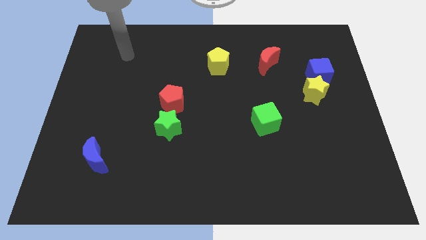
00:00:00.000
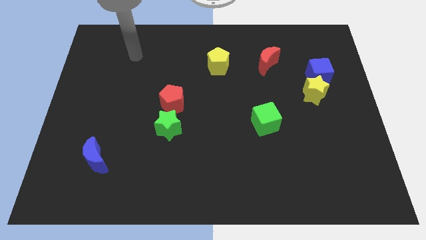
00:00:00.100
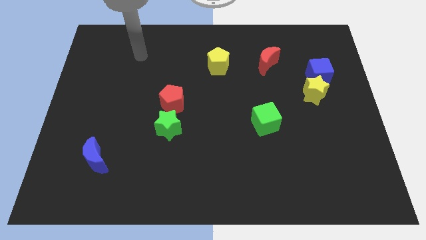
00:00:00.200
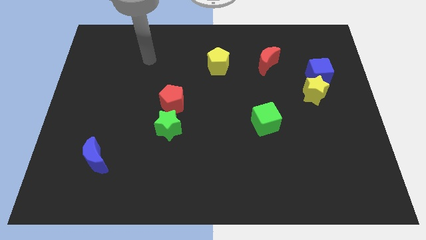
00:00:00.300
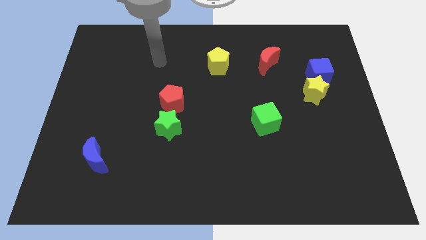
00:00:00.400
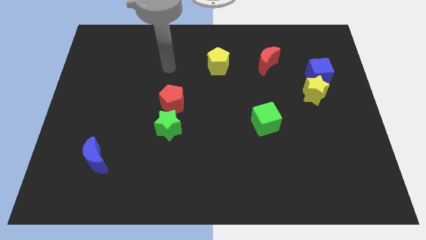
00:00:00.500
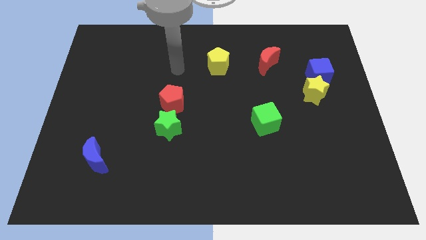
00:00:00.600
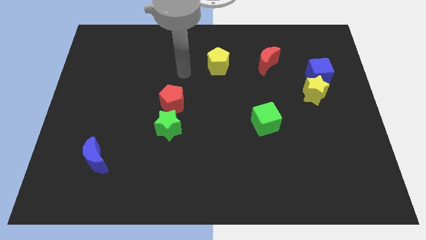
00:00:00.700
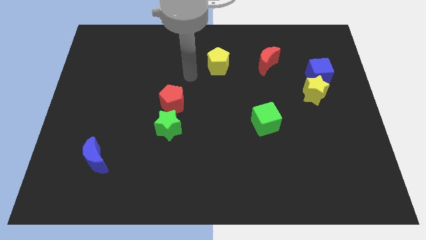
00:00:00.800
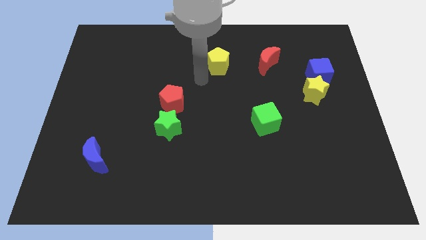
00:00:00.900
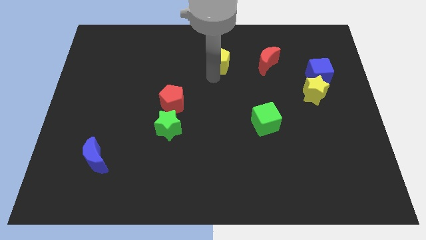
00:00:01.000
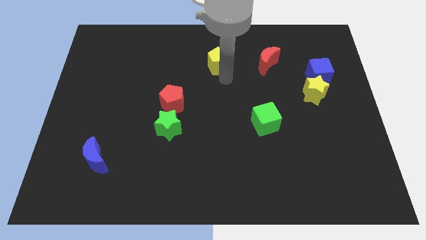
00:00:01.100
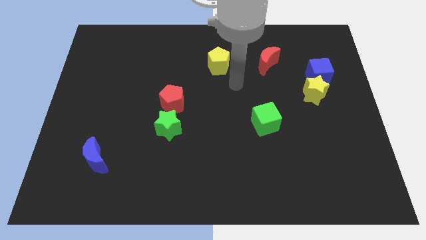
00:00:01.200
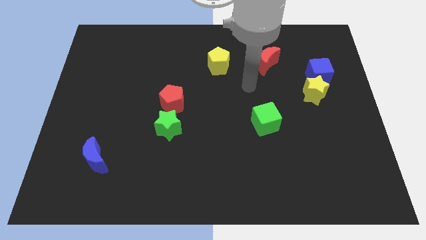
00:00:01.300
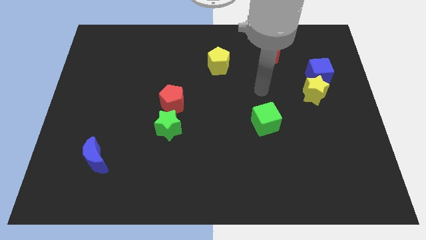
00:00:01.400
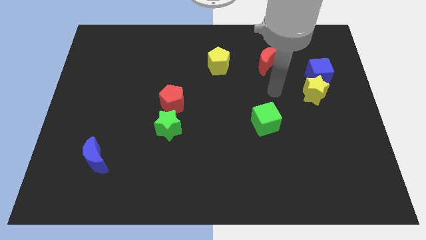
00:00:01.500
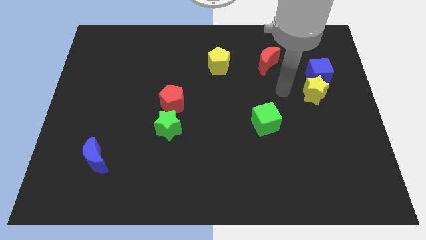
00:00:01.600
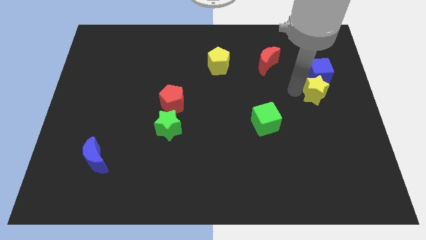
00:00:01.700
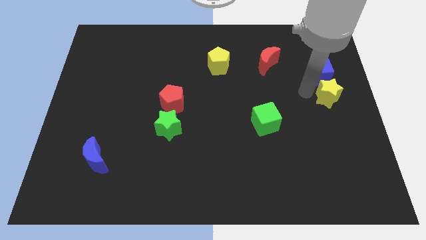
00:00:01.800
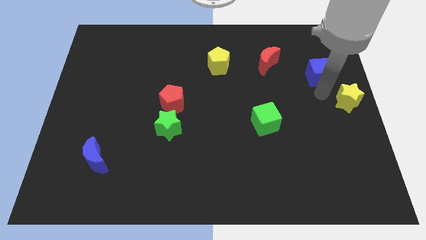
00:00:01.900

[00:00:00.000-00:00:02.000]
pull the blue cube apart from the yellow star

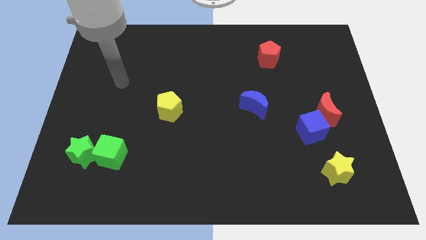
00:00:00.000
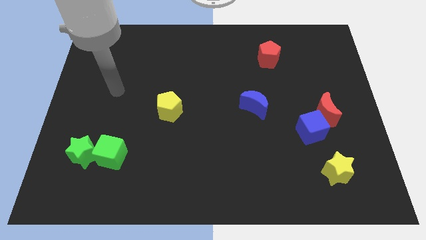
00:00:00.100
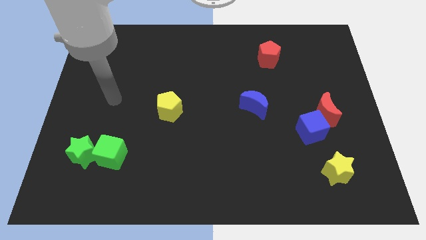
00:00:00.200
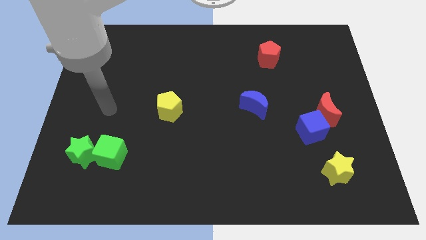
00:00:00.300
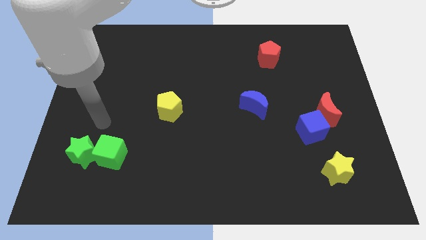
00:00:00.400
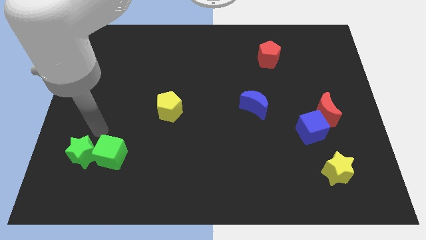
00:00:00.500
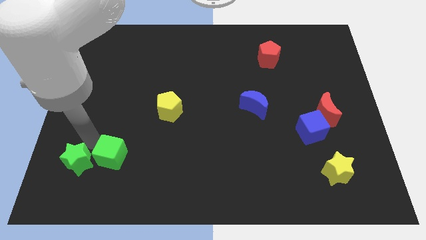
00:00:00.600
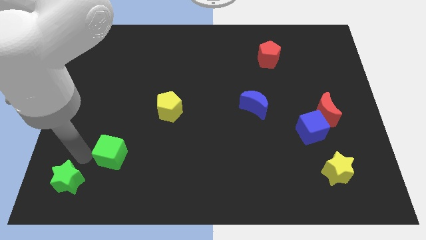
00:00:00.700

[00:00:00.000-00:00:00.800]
pull the green cube apart from the green star

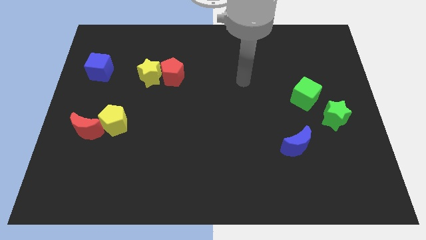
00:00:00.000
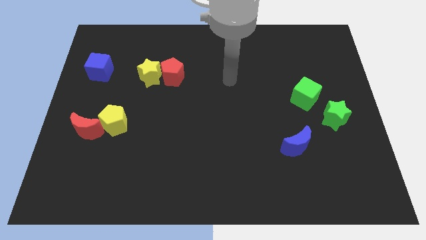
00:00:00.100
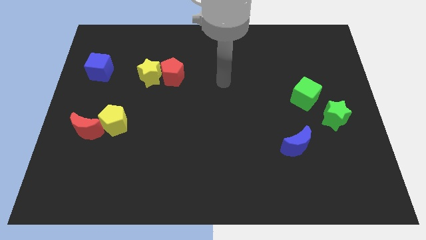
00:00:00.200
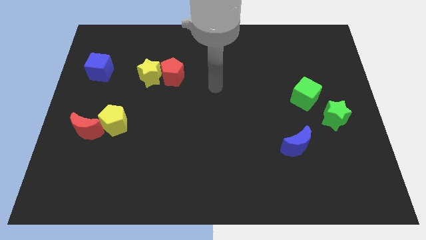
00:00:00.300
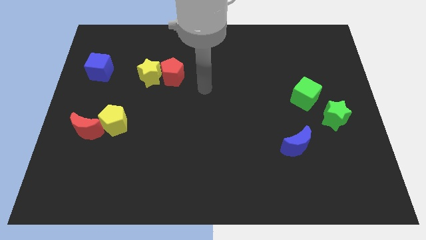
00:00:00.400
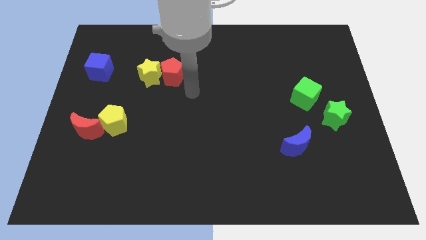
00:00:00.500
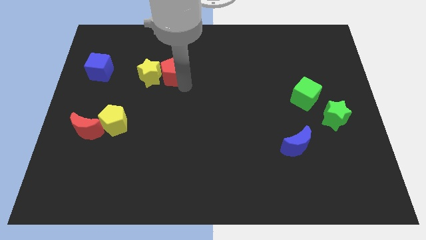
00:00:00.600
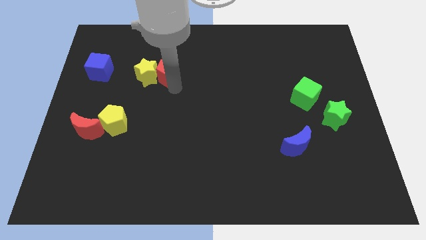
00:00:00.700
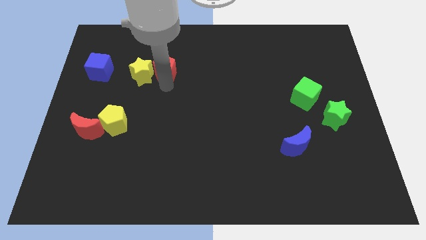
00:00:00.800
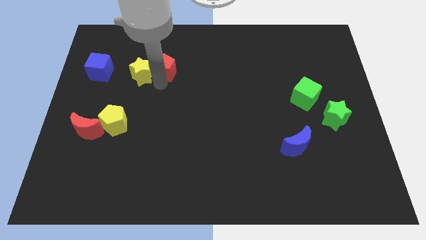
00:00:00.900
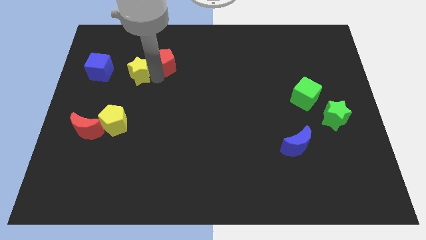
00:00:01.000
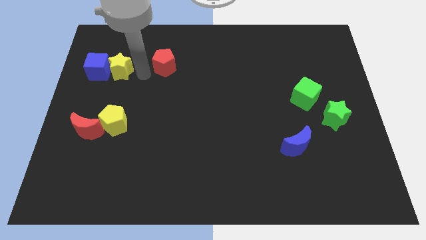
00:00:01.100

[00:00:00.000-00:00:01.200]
pull the red pentagon apart from the yellow star

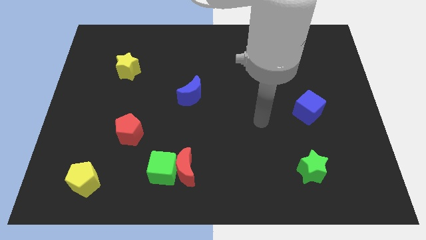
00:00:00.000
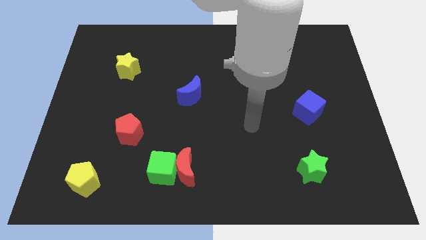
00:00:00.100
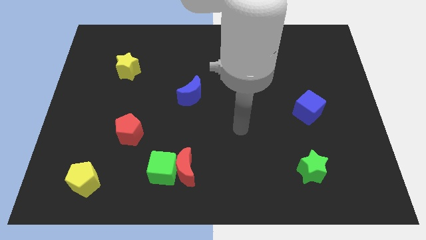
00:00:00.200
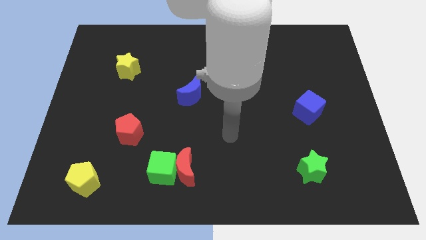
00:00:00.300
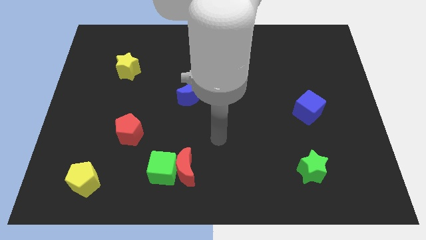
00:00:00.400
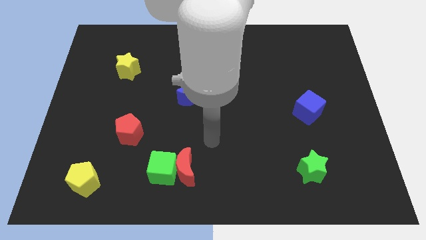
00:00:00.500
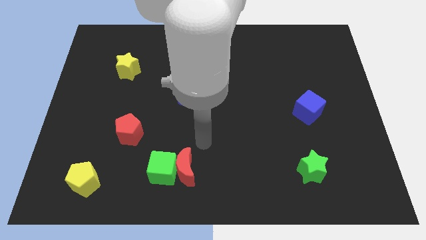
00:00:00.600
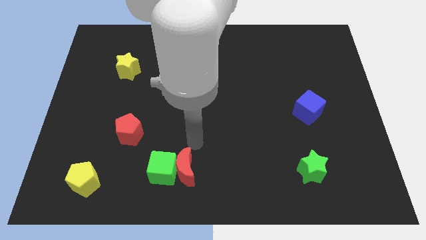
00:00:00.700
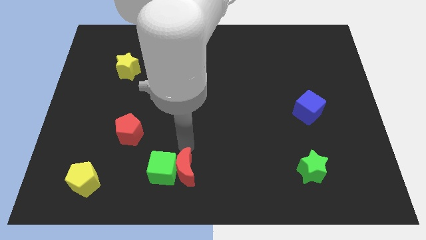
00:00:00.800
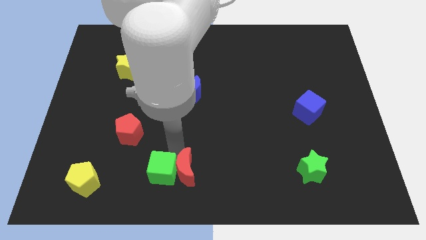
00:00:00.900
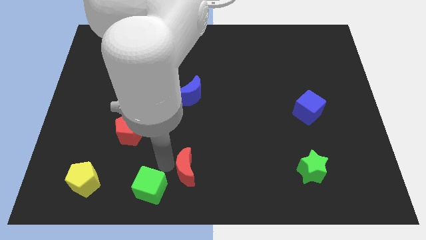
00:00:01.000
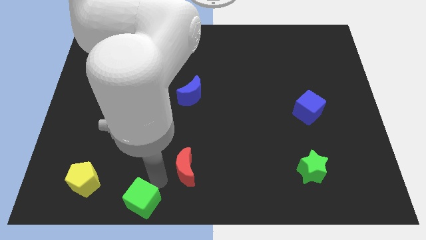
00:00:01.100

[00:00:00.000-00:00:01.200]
separate the red moon from the green cube

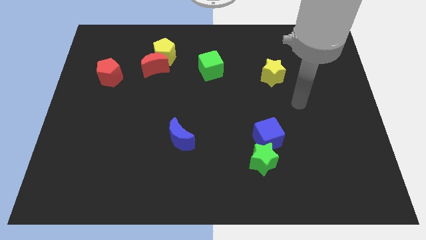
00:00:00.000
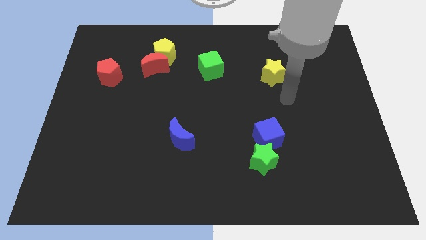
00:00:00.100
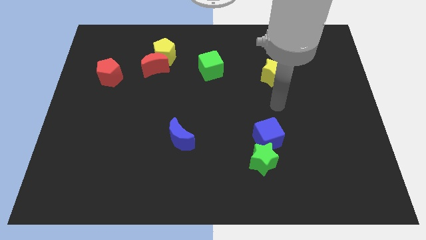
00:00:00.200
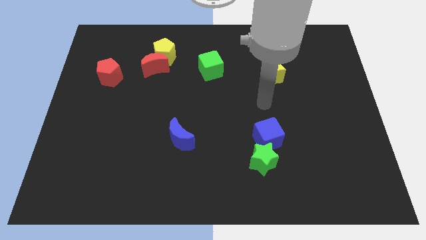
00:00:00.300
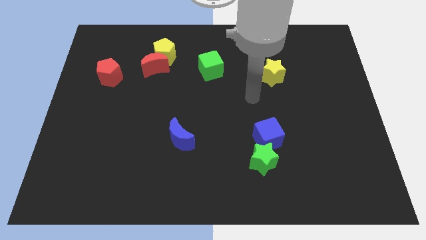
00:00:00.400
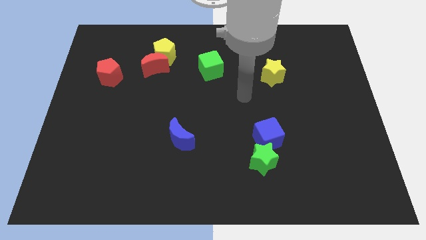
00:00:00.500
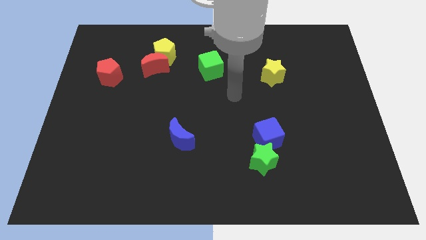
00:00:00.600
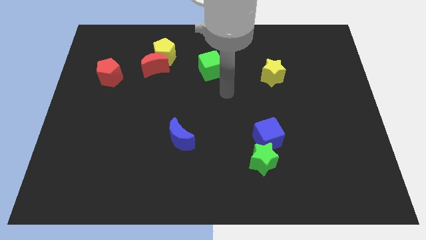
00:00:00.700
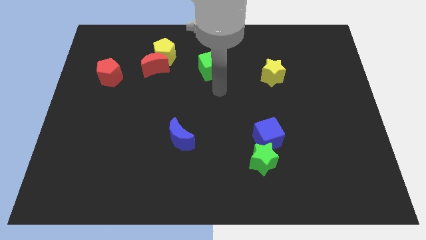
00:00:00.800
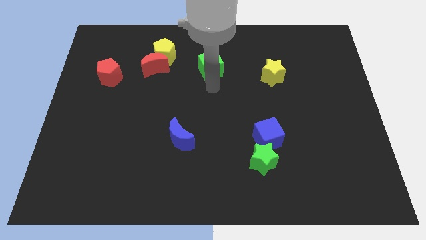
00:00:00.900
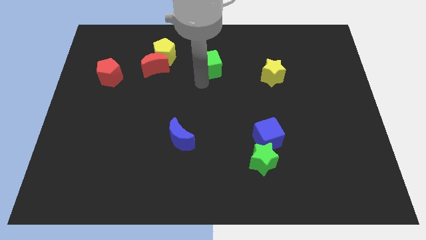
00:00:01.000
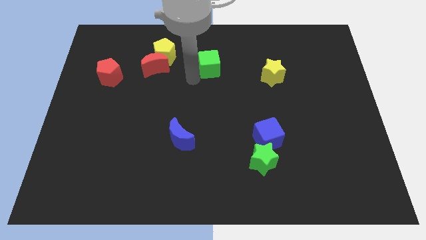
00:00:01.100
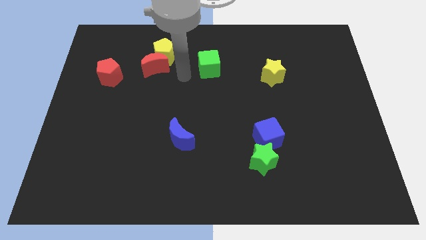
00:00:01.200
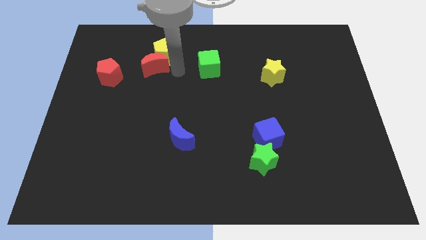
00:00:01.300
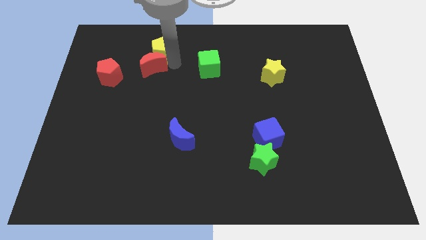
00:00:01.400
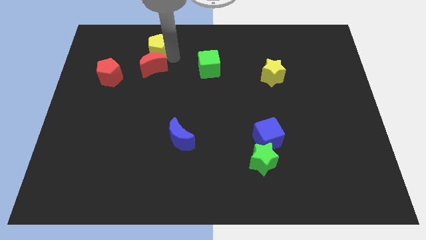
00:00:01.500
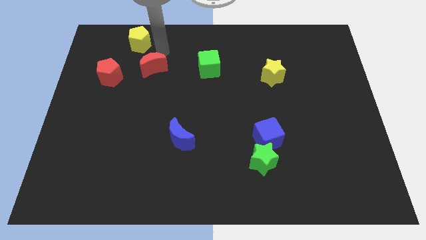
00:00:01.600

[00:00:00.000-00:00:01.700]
pull the red moon apart from the yellow pentagon

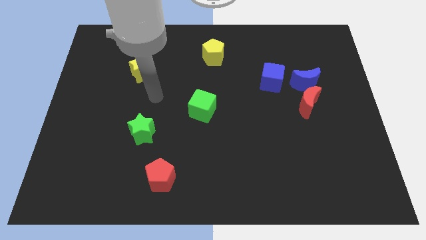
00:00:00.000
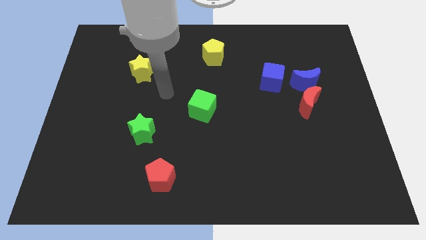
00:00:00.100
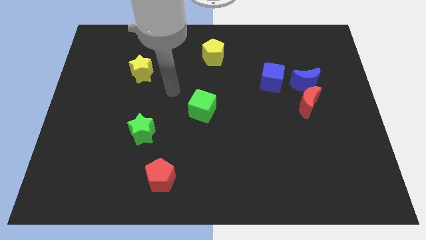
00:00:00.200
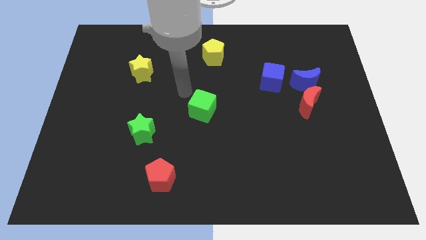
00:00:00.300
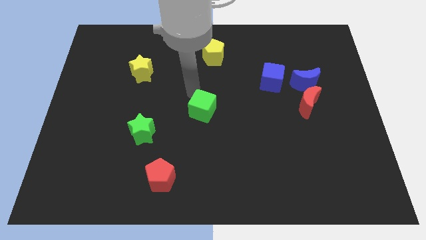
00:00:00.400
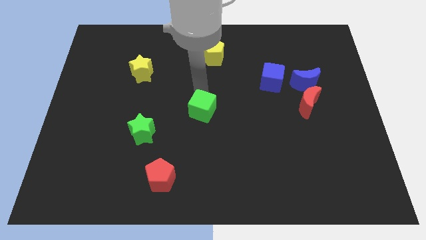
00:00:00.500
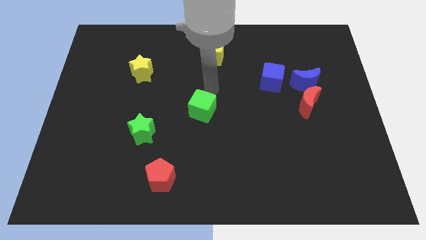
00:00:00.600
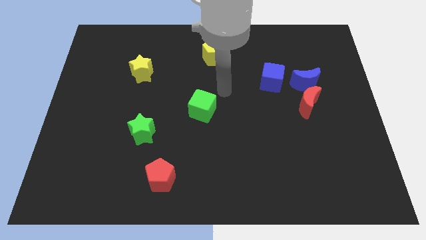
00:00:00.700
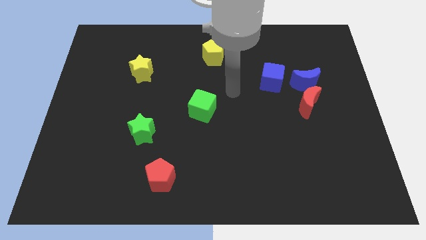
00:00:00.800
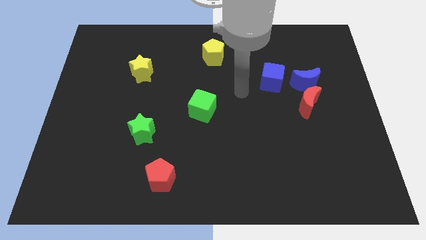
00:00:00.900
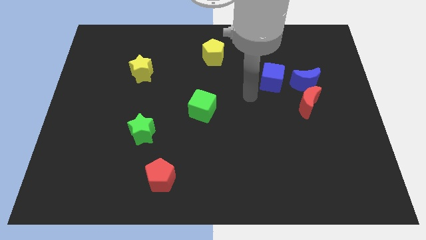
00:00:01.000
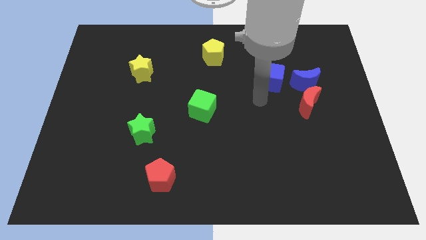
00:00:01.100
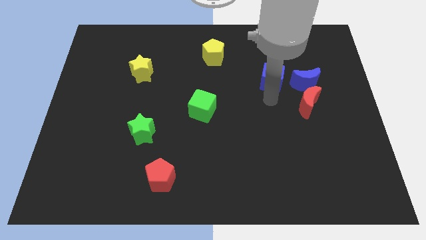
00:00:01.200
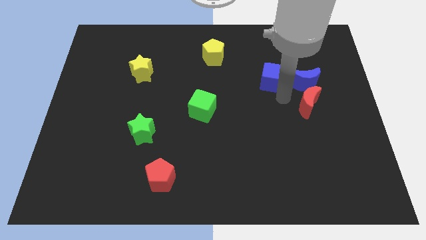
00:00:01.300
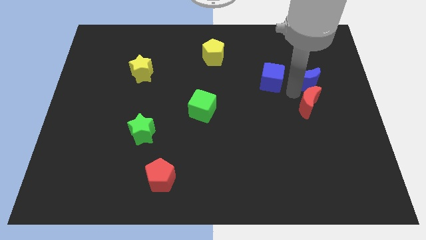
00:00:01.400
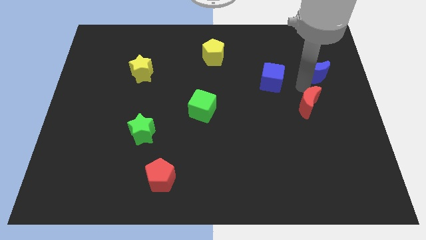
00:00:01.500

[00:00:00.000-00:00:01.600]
separate the red moon from the blue moon

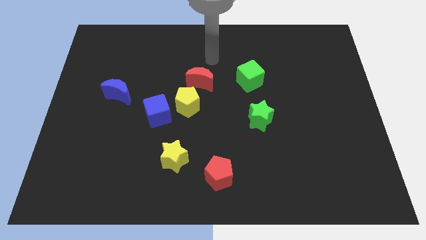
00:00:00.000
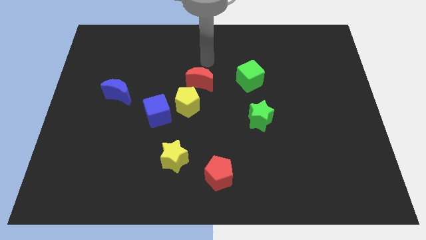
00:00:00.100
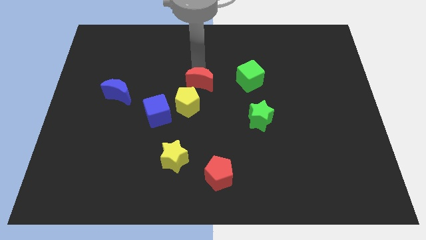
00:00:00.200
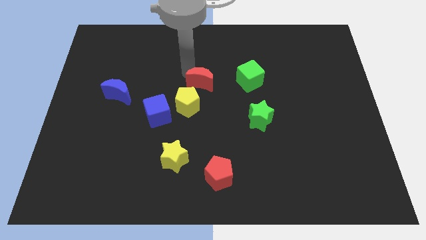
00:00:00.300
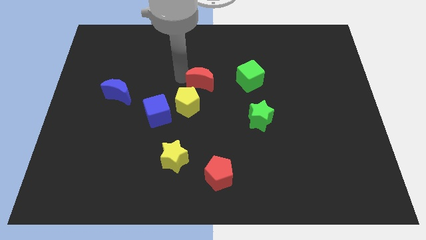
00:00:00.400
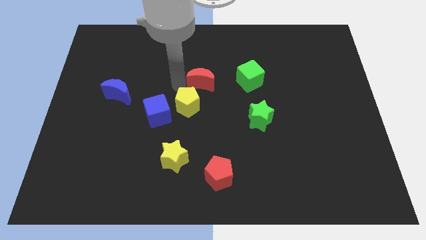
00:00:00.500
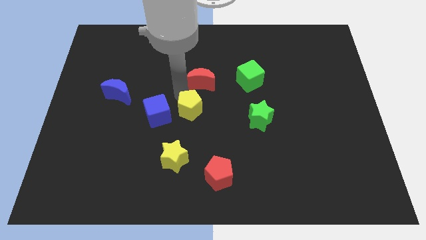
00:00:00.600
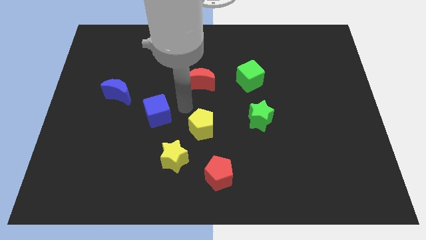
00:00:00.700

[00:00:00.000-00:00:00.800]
move the blue cube away from the yellow pentagon
